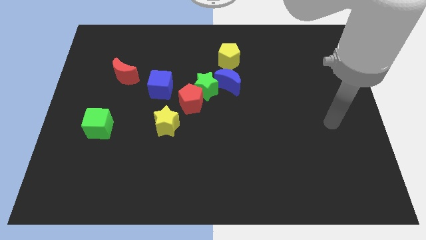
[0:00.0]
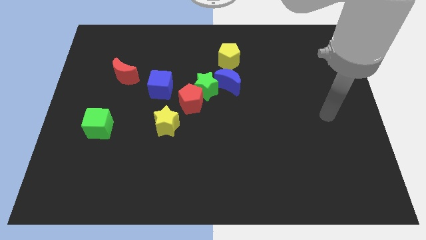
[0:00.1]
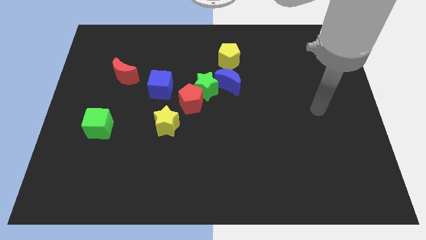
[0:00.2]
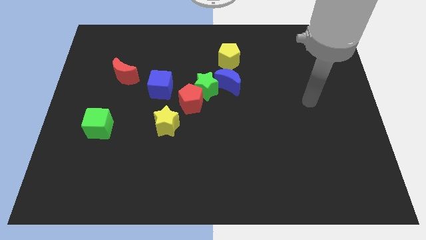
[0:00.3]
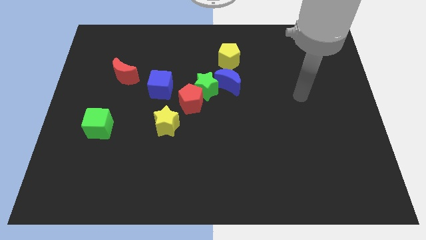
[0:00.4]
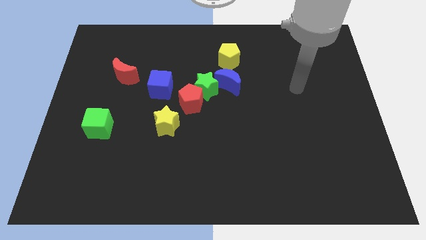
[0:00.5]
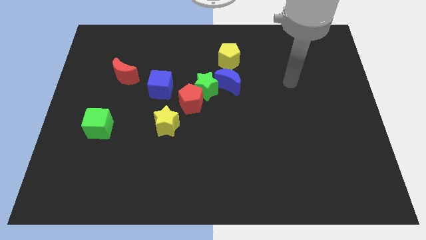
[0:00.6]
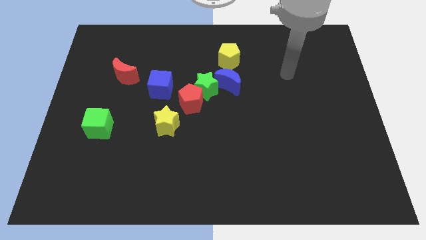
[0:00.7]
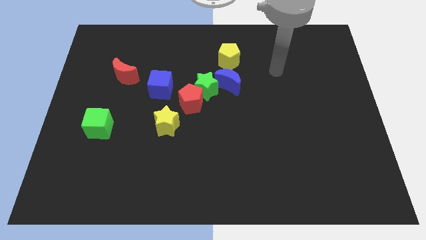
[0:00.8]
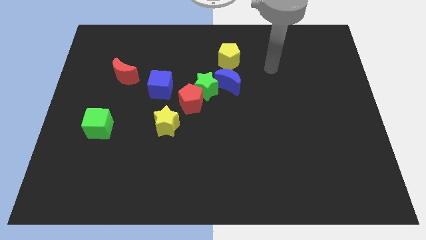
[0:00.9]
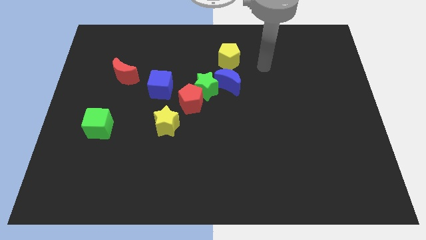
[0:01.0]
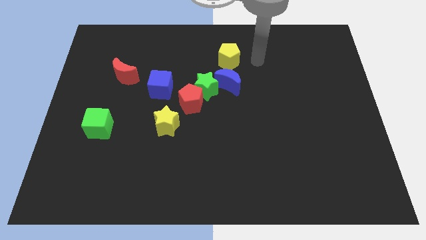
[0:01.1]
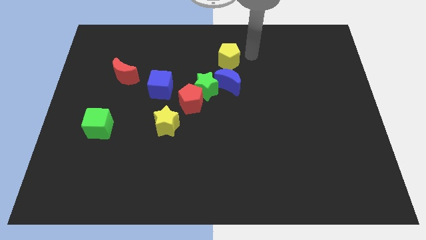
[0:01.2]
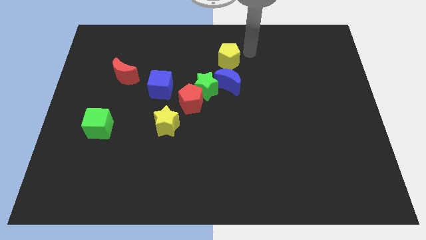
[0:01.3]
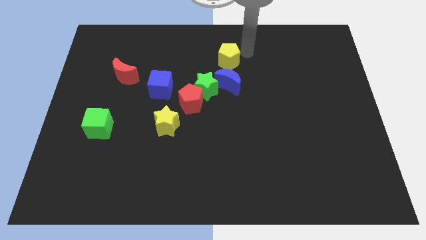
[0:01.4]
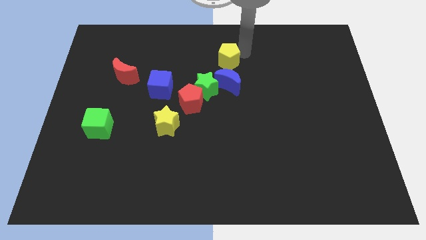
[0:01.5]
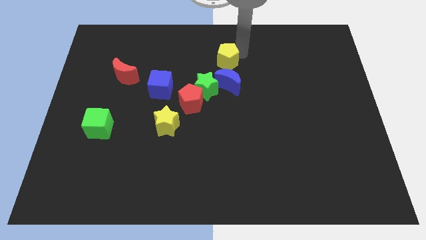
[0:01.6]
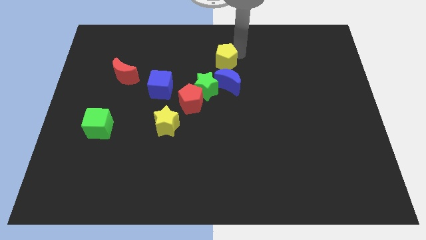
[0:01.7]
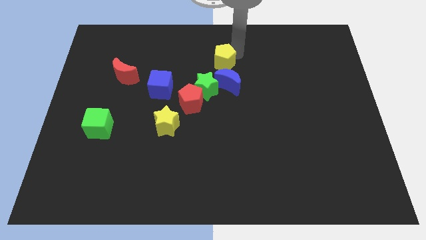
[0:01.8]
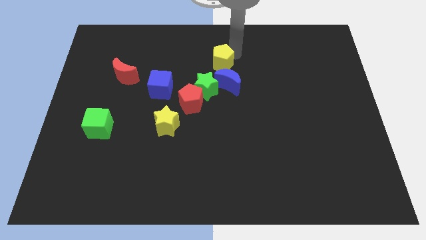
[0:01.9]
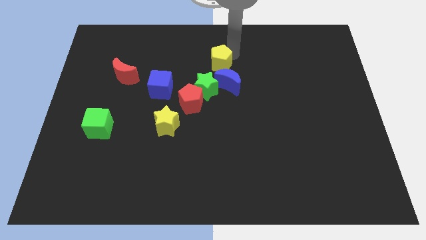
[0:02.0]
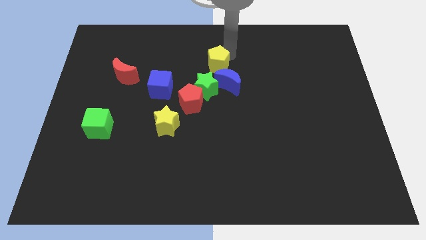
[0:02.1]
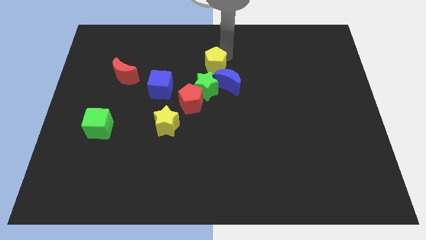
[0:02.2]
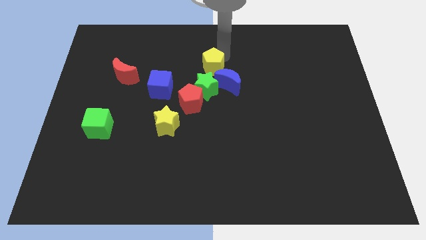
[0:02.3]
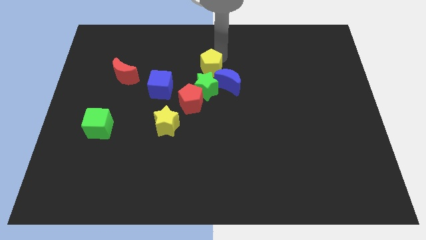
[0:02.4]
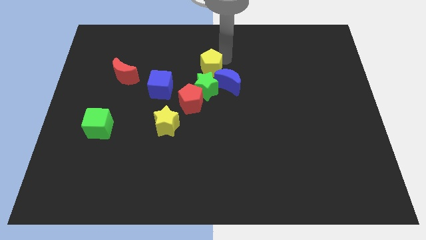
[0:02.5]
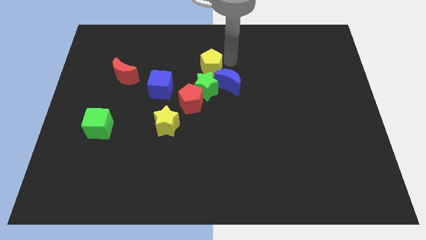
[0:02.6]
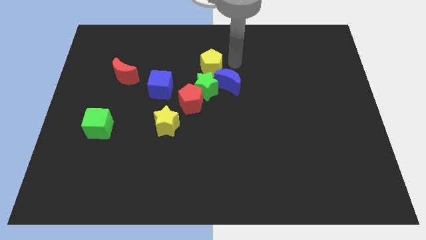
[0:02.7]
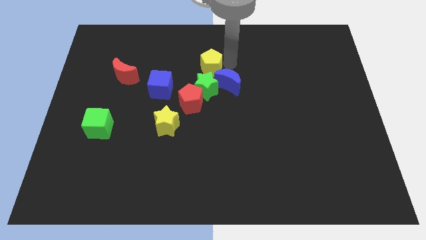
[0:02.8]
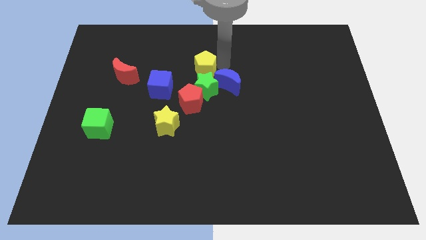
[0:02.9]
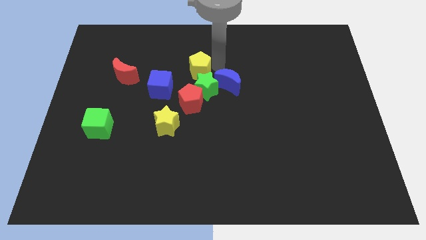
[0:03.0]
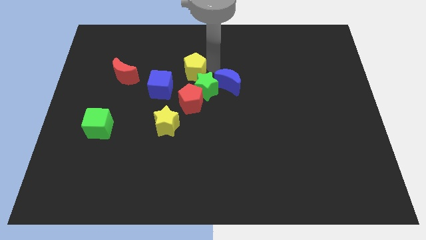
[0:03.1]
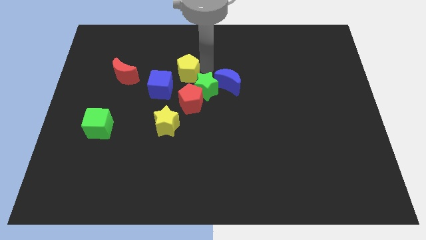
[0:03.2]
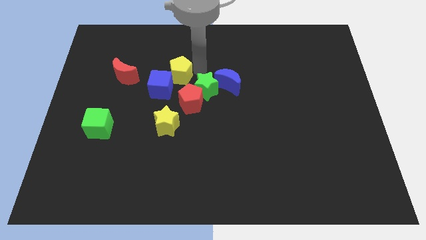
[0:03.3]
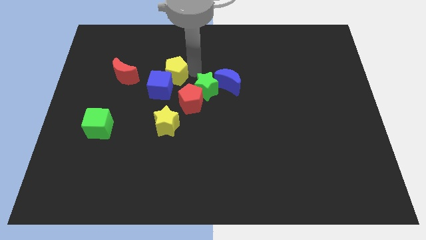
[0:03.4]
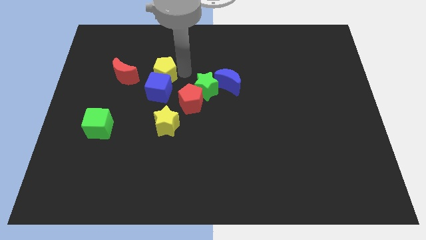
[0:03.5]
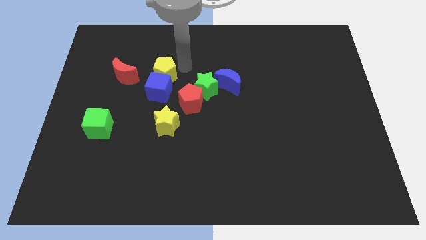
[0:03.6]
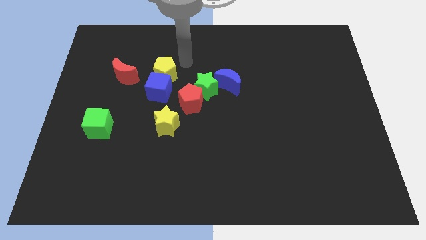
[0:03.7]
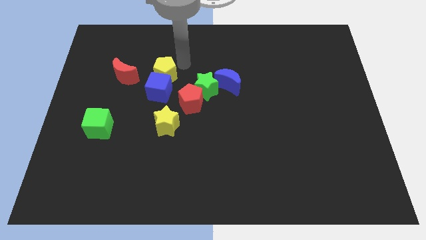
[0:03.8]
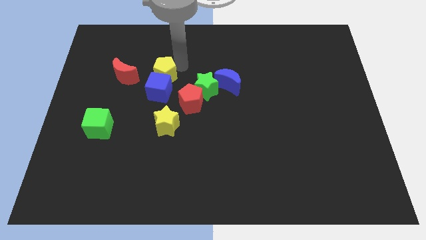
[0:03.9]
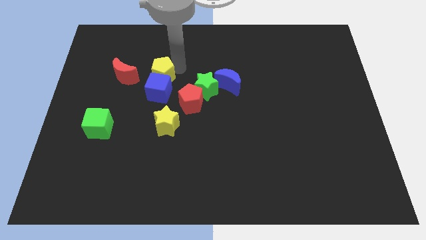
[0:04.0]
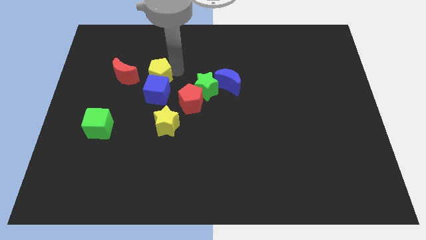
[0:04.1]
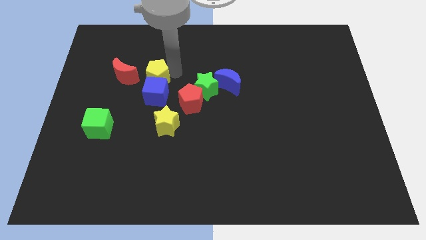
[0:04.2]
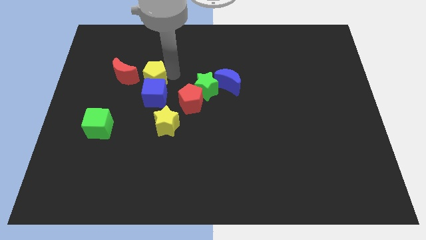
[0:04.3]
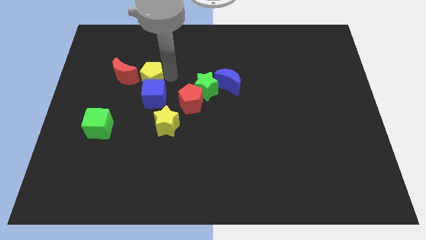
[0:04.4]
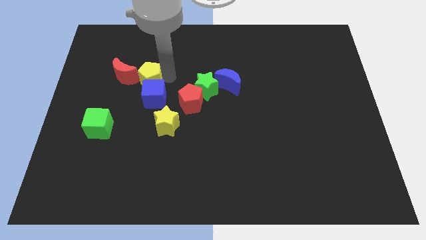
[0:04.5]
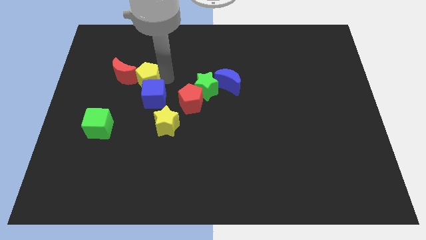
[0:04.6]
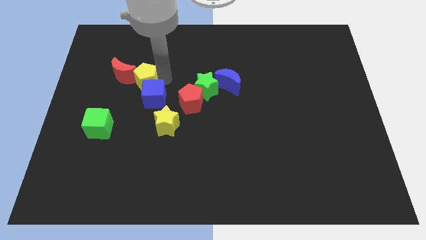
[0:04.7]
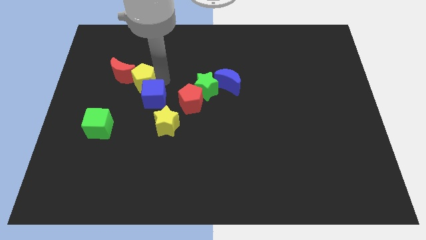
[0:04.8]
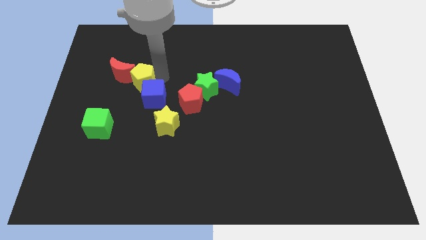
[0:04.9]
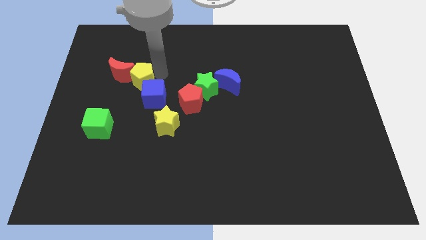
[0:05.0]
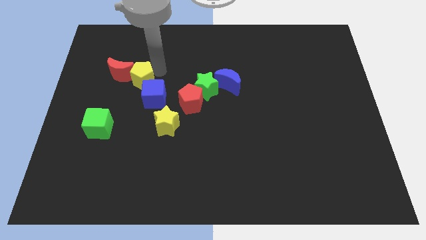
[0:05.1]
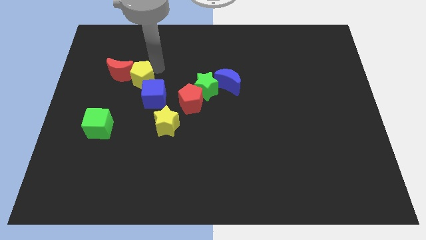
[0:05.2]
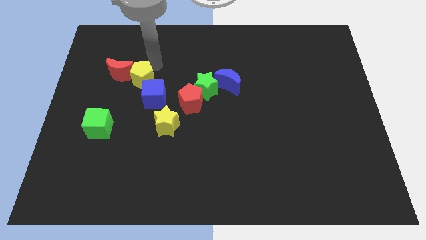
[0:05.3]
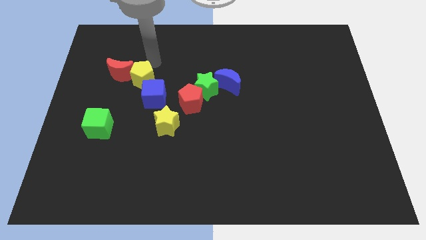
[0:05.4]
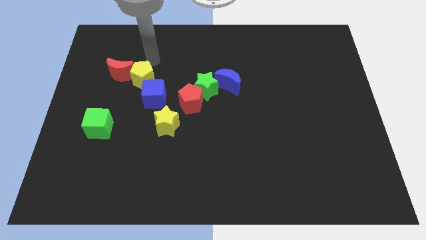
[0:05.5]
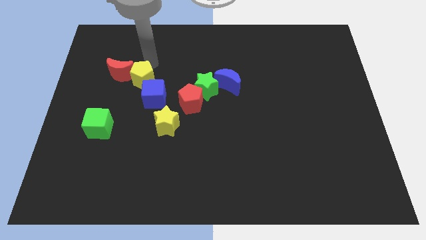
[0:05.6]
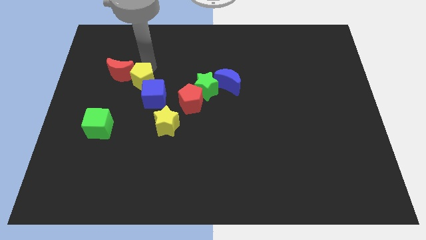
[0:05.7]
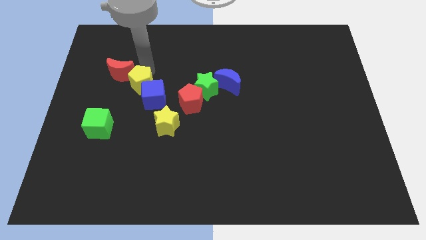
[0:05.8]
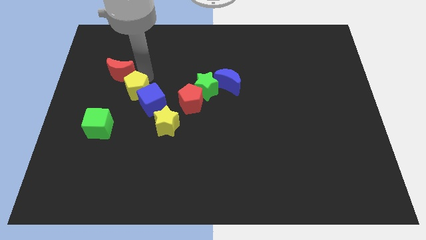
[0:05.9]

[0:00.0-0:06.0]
slide the yellow pentagon below the red moon

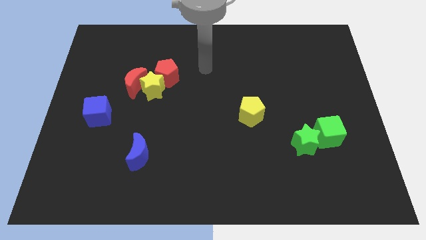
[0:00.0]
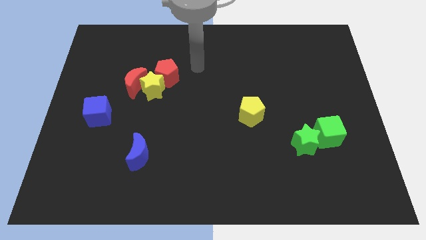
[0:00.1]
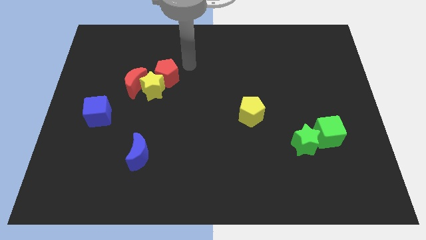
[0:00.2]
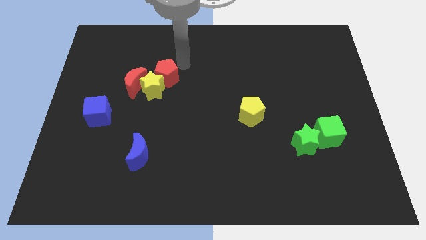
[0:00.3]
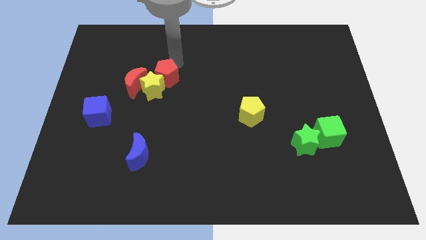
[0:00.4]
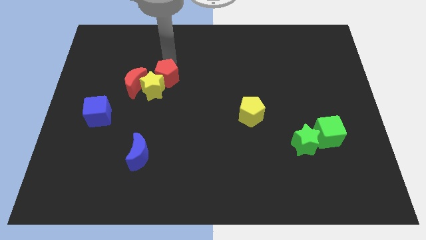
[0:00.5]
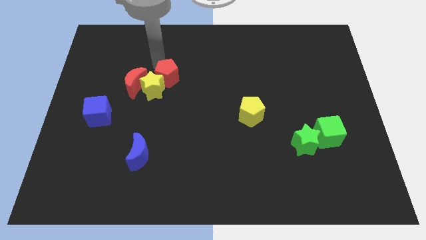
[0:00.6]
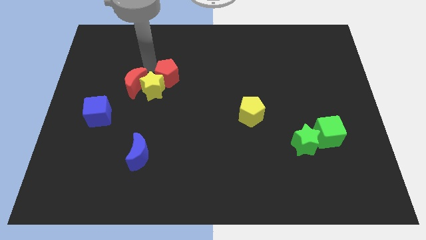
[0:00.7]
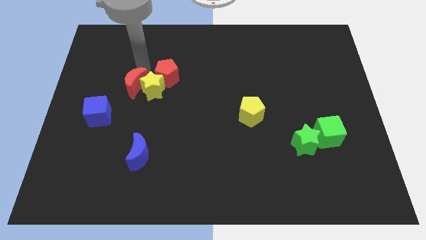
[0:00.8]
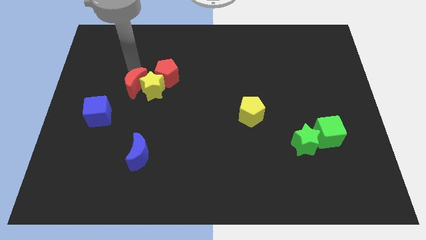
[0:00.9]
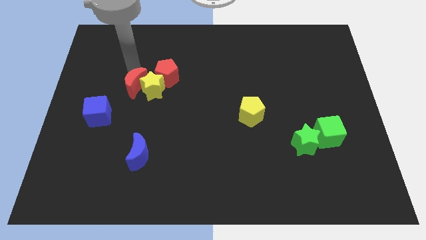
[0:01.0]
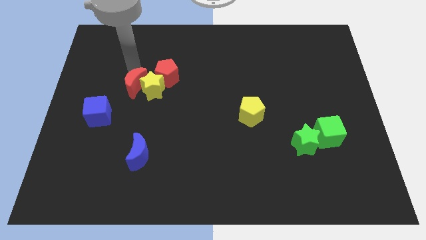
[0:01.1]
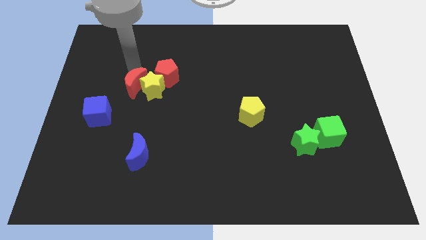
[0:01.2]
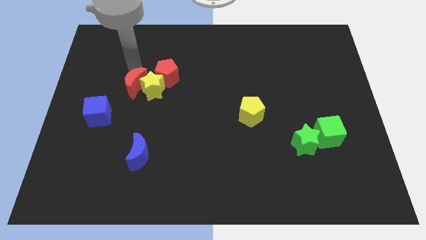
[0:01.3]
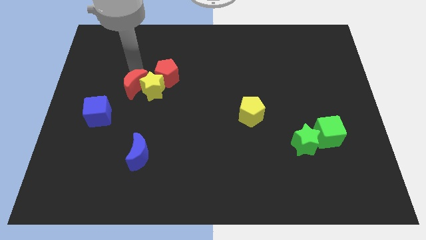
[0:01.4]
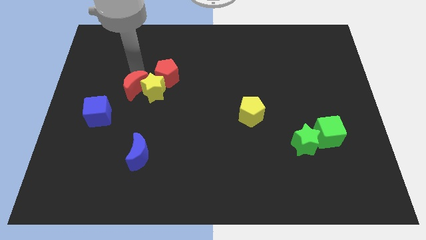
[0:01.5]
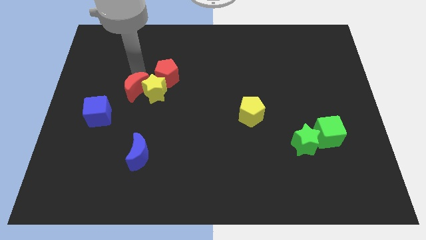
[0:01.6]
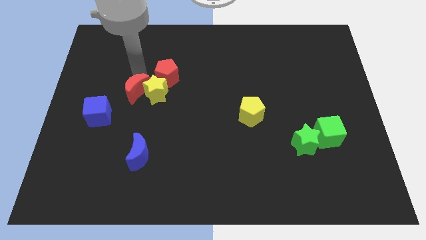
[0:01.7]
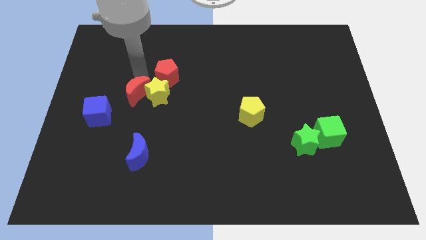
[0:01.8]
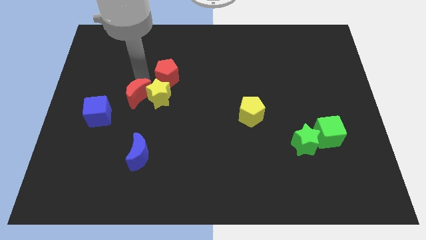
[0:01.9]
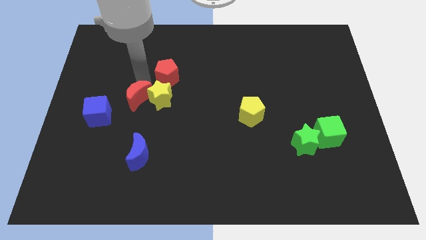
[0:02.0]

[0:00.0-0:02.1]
push the red moon to the top of the blue moon
